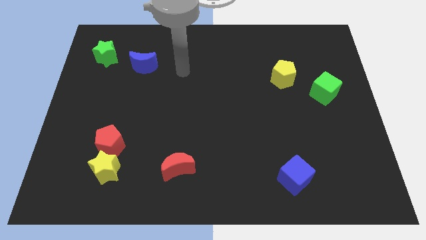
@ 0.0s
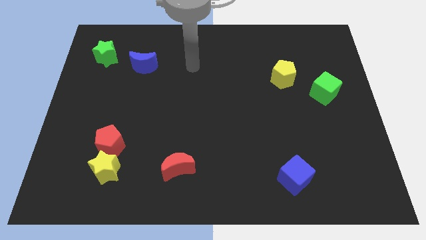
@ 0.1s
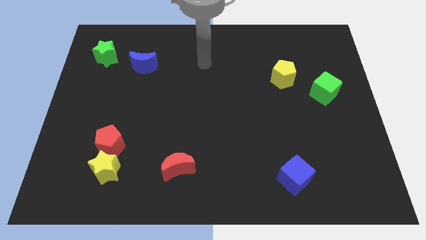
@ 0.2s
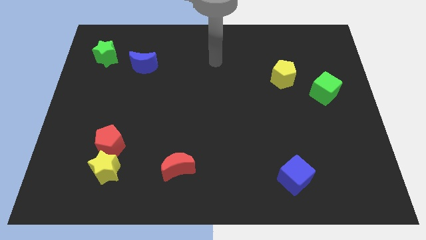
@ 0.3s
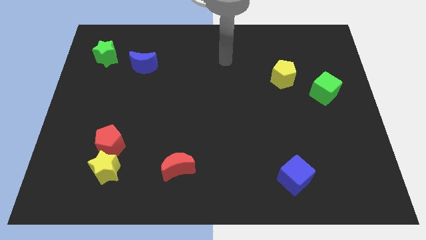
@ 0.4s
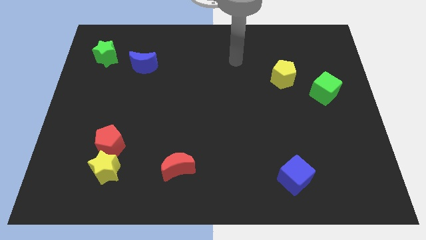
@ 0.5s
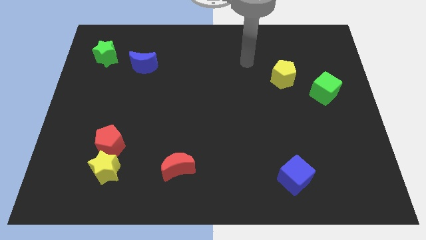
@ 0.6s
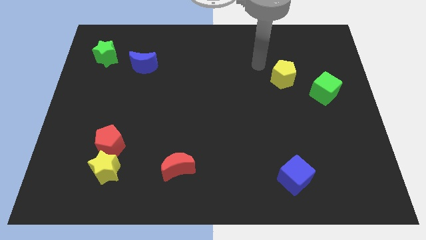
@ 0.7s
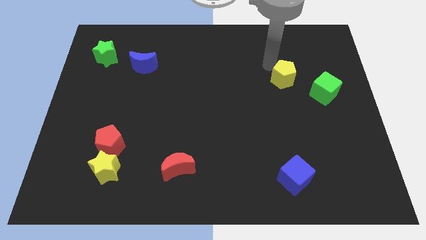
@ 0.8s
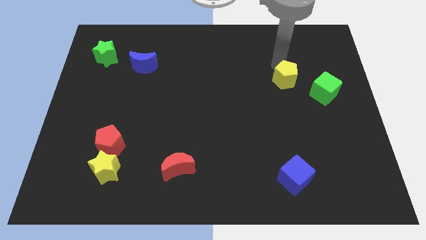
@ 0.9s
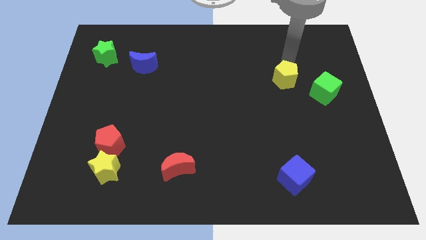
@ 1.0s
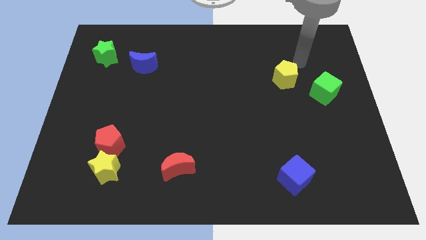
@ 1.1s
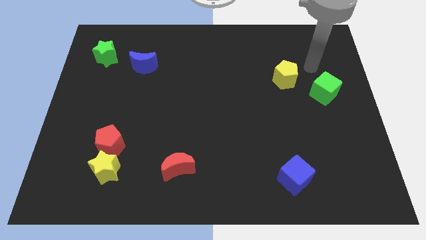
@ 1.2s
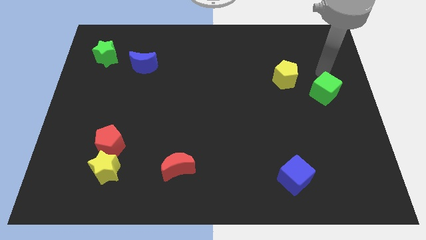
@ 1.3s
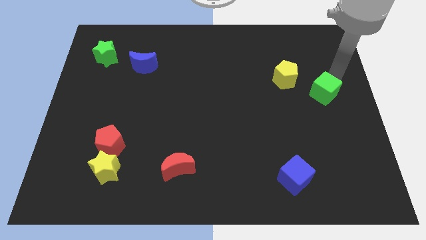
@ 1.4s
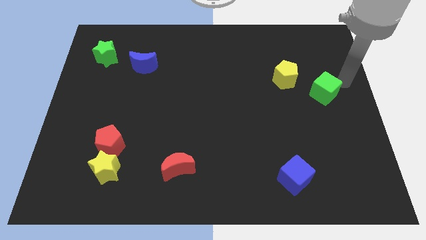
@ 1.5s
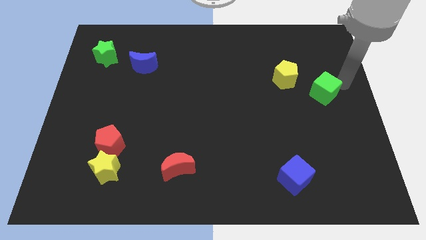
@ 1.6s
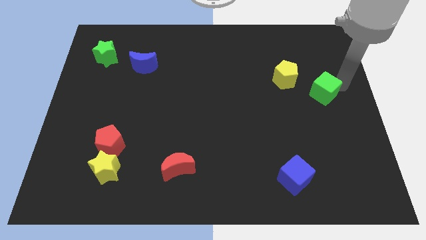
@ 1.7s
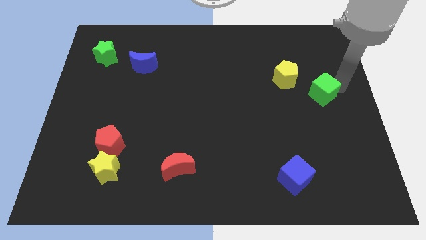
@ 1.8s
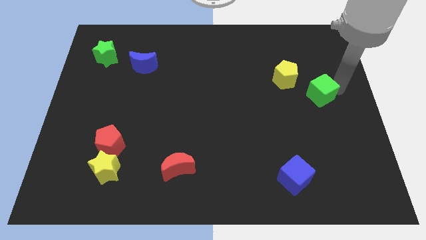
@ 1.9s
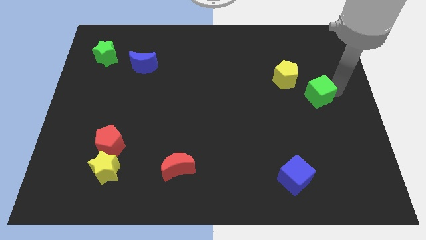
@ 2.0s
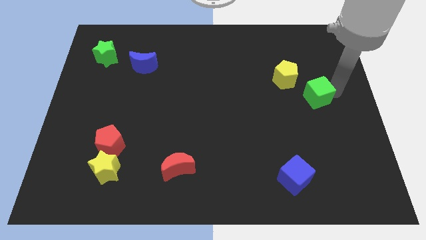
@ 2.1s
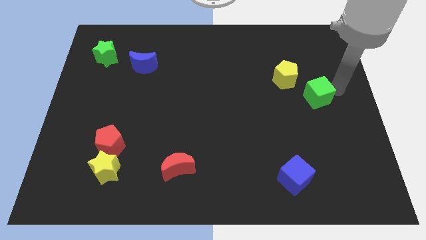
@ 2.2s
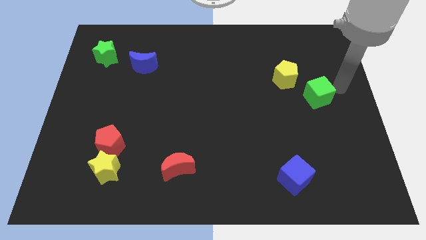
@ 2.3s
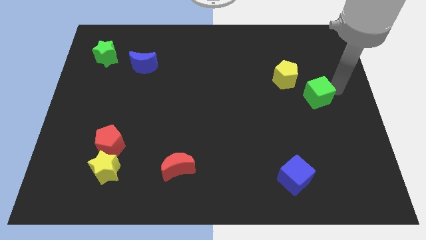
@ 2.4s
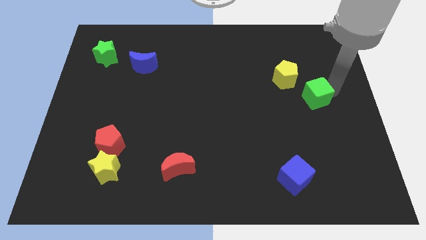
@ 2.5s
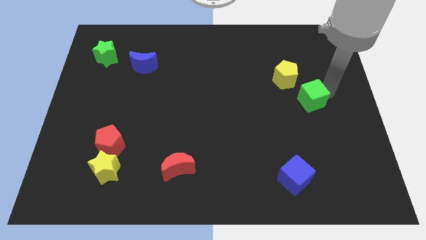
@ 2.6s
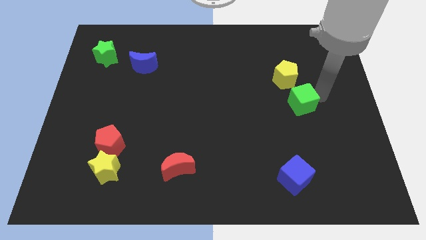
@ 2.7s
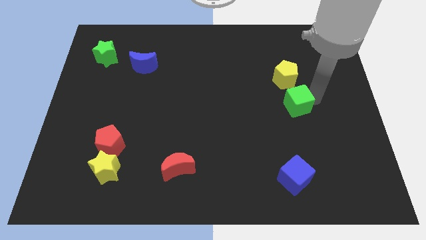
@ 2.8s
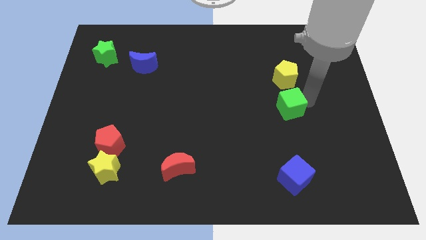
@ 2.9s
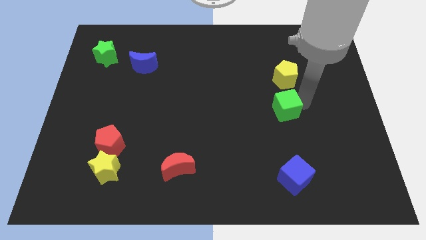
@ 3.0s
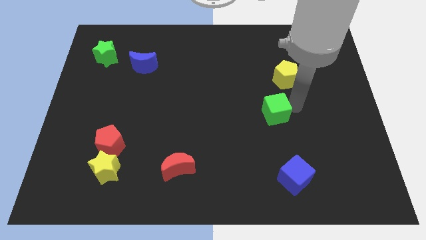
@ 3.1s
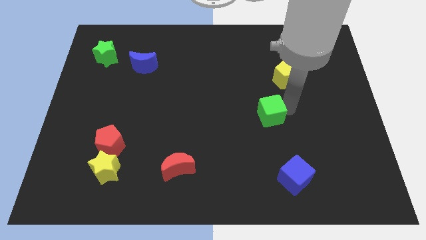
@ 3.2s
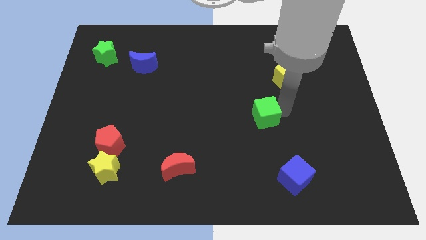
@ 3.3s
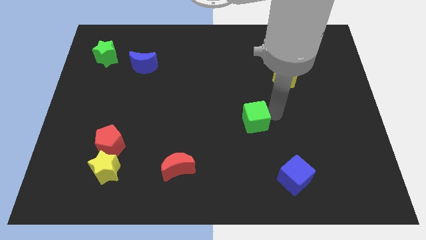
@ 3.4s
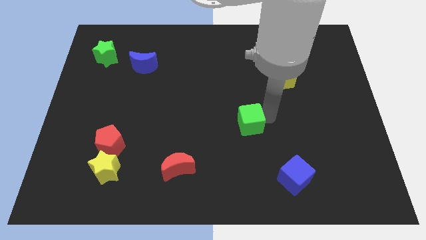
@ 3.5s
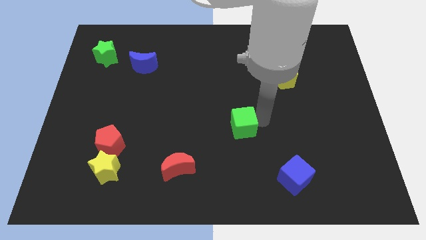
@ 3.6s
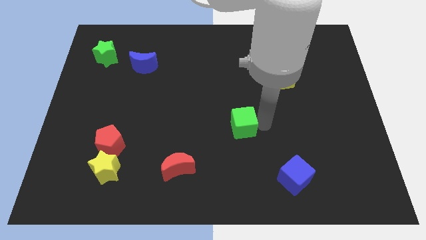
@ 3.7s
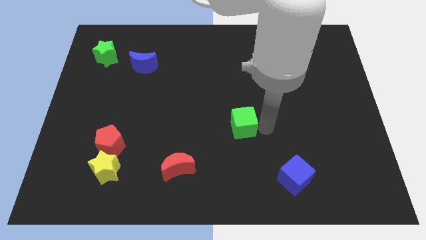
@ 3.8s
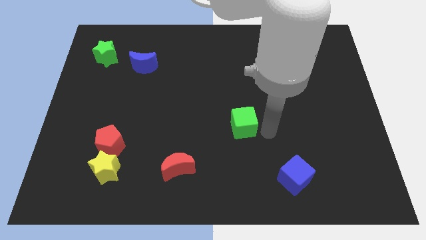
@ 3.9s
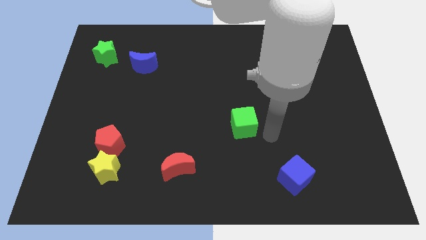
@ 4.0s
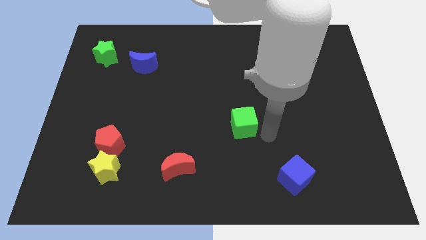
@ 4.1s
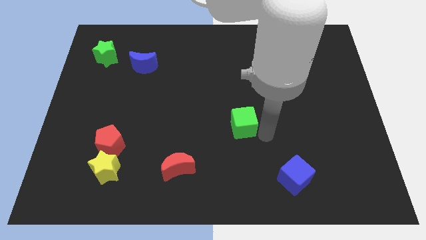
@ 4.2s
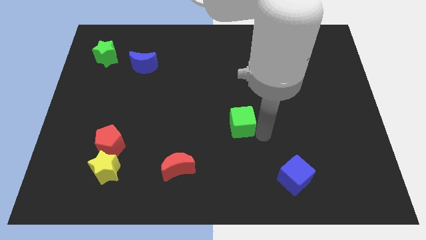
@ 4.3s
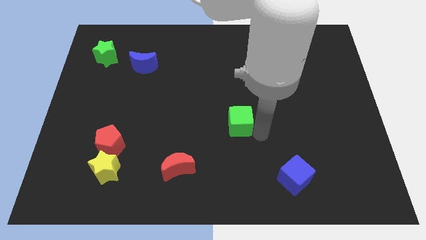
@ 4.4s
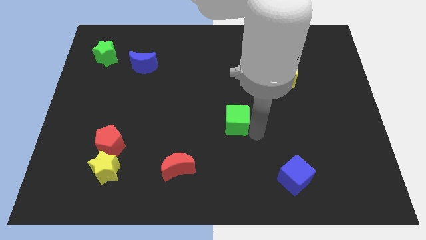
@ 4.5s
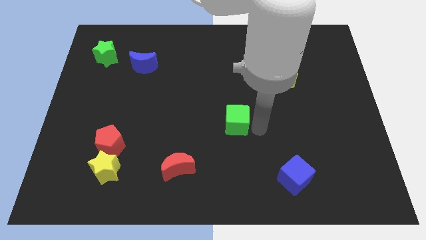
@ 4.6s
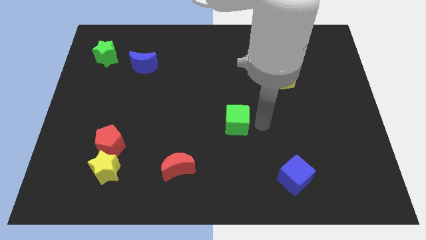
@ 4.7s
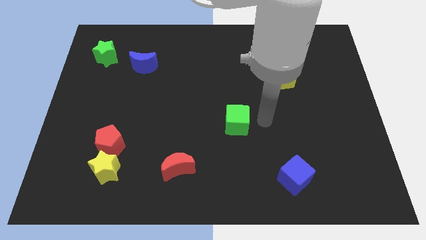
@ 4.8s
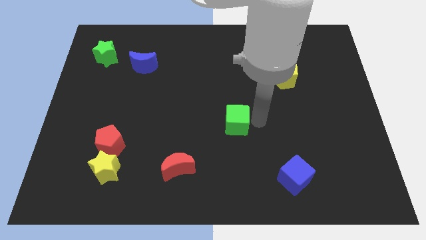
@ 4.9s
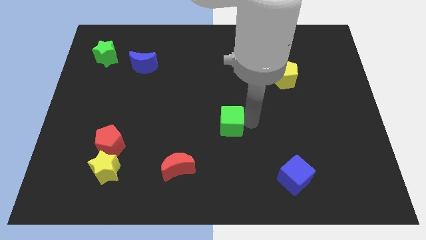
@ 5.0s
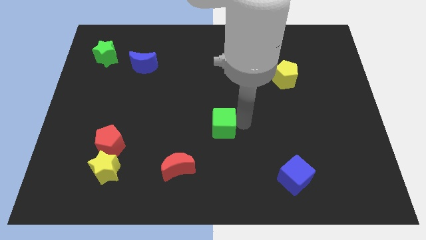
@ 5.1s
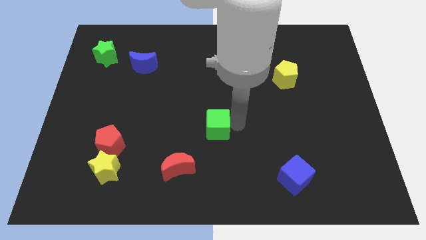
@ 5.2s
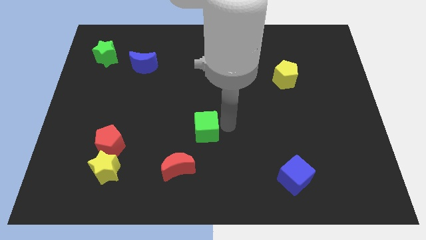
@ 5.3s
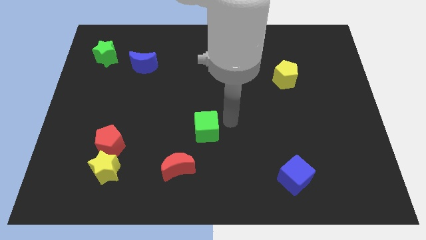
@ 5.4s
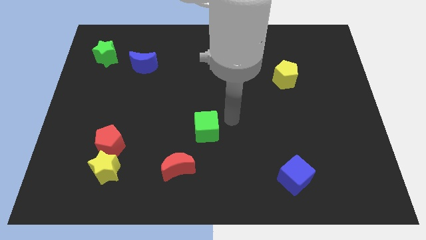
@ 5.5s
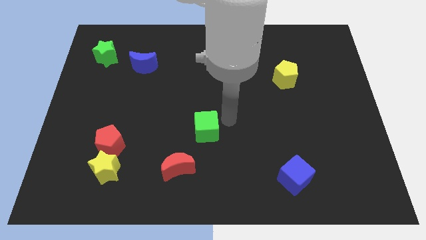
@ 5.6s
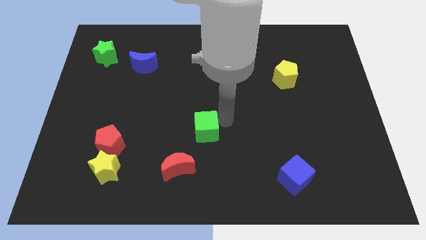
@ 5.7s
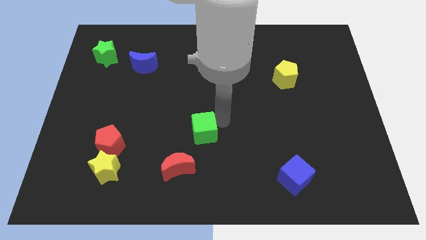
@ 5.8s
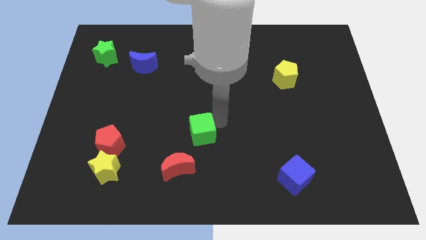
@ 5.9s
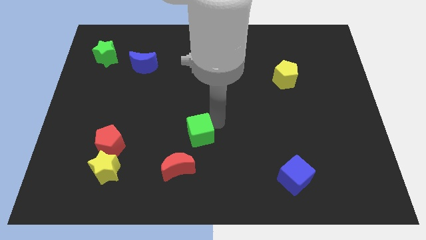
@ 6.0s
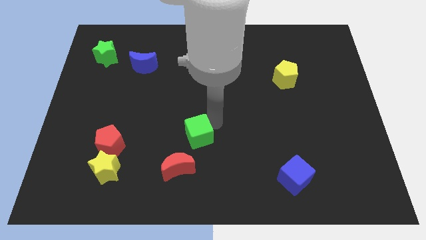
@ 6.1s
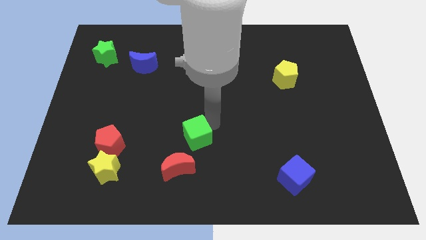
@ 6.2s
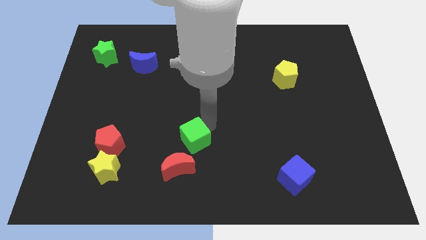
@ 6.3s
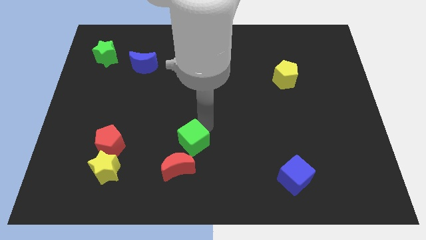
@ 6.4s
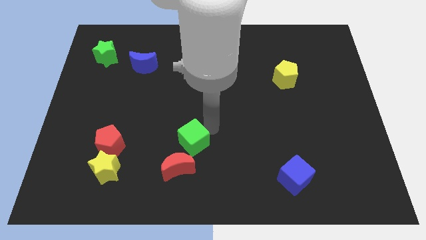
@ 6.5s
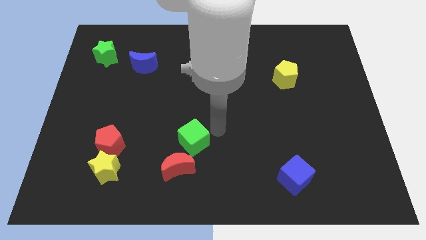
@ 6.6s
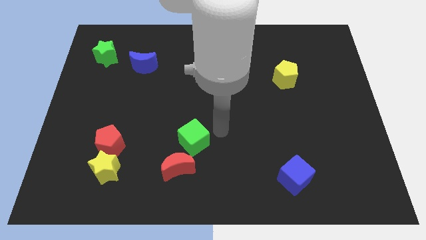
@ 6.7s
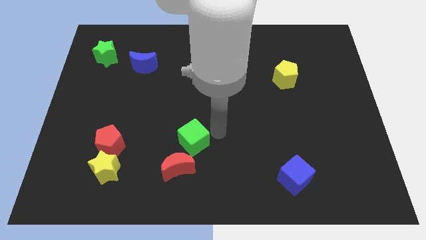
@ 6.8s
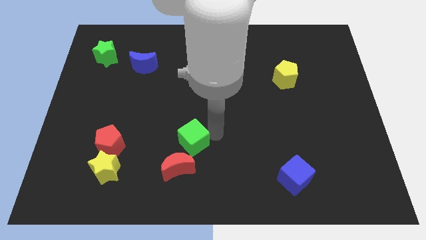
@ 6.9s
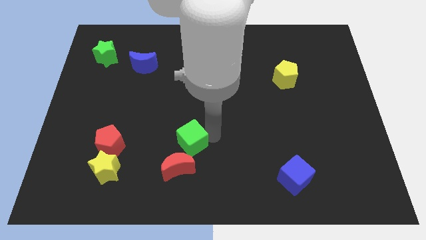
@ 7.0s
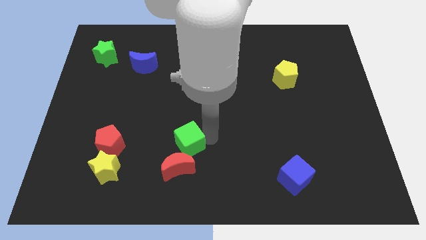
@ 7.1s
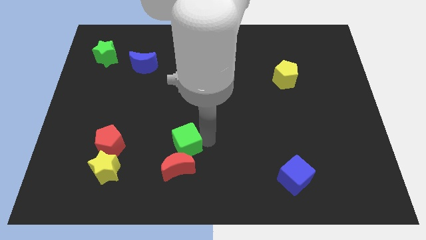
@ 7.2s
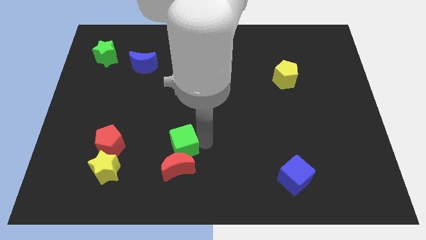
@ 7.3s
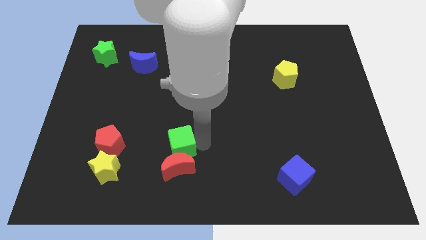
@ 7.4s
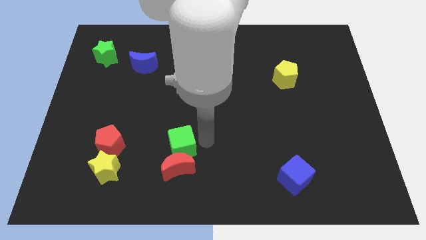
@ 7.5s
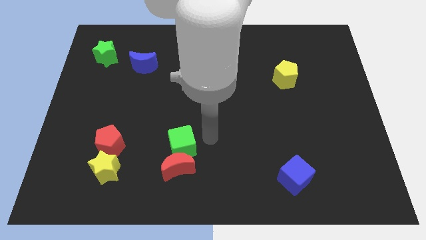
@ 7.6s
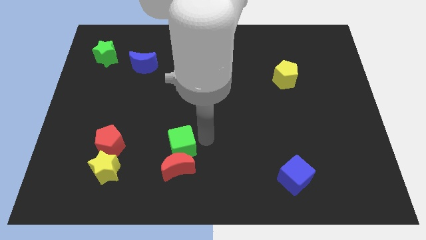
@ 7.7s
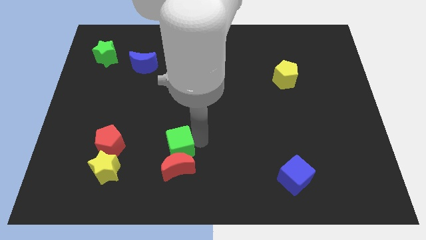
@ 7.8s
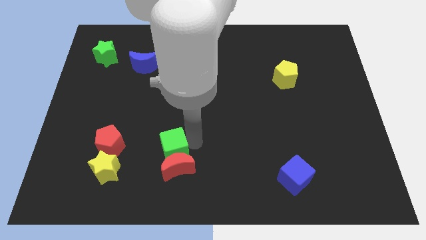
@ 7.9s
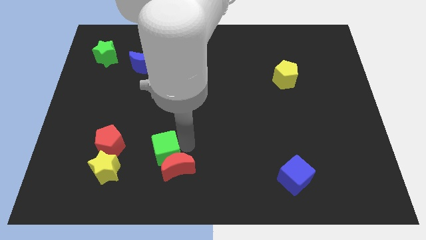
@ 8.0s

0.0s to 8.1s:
slide the green cube left of the red moon
